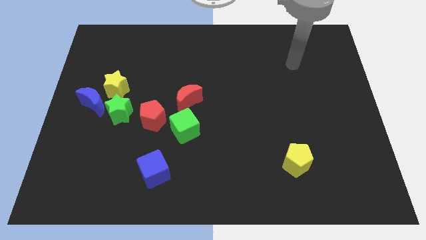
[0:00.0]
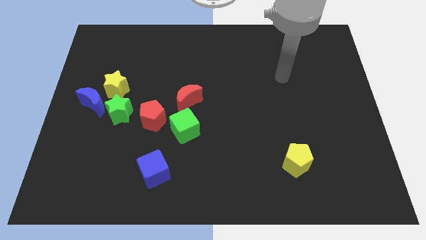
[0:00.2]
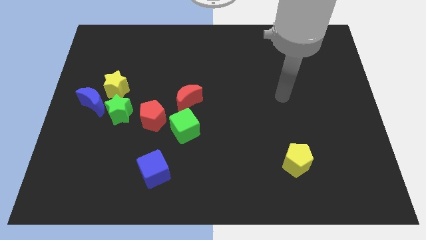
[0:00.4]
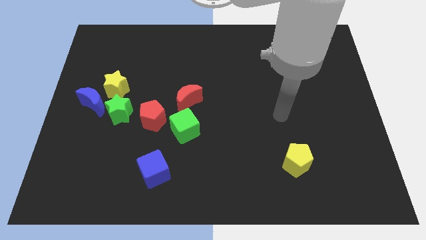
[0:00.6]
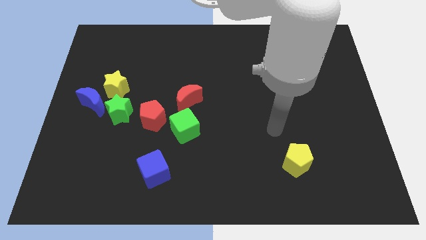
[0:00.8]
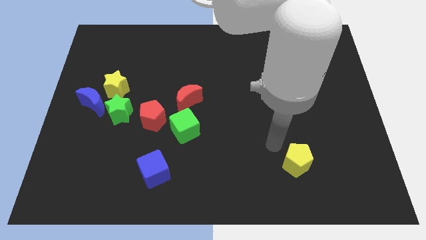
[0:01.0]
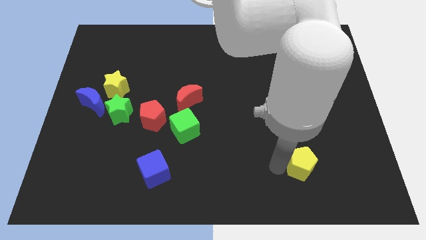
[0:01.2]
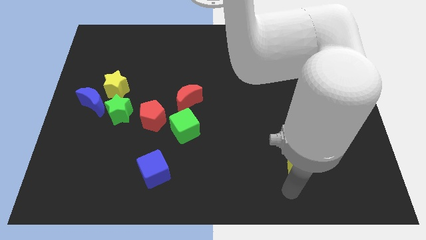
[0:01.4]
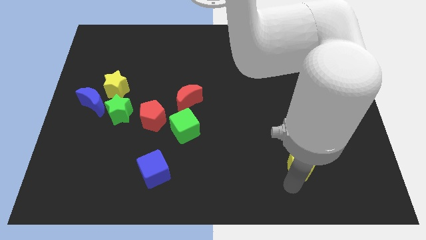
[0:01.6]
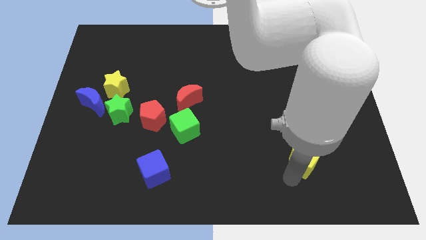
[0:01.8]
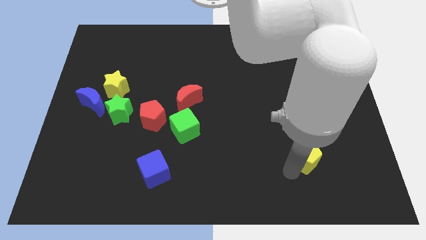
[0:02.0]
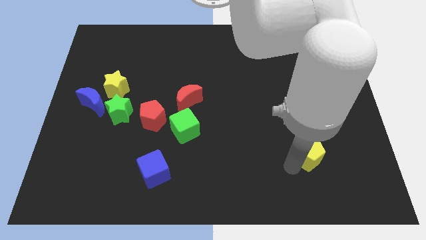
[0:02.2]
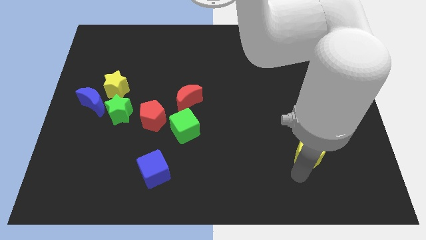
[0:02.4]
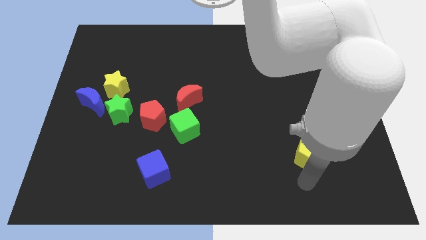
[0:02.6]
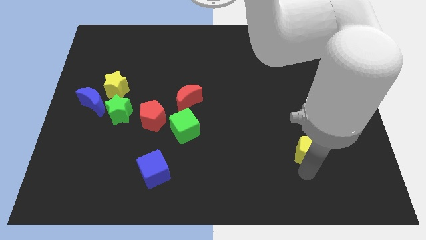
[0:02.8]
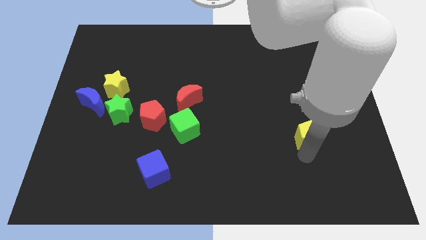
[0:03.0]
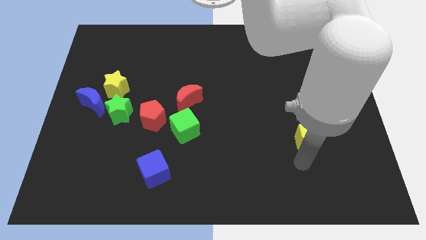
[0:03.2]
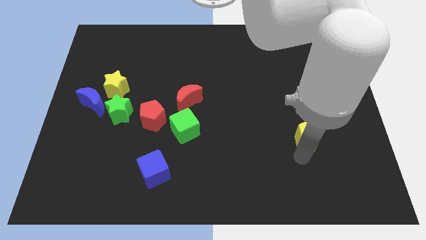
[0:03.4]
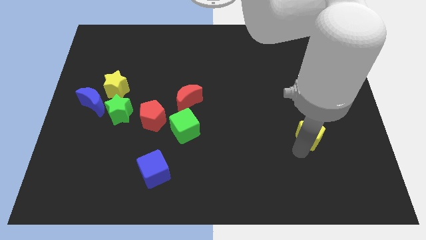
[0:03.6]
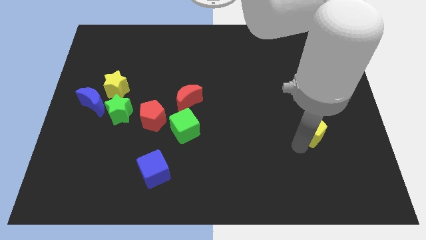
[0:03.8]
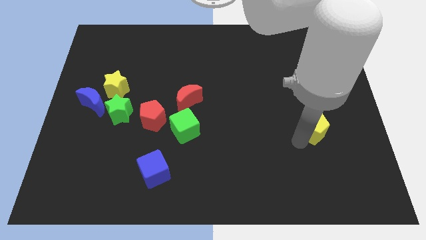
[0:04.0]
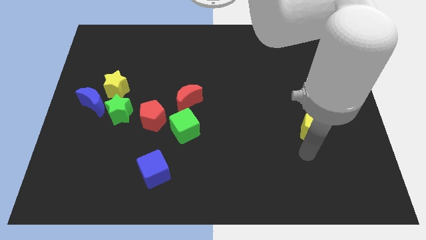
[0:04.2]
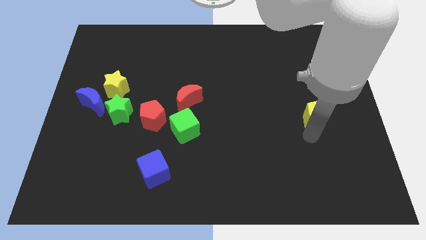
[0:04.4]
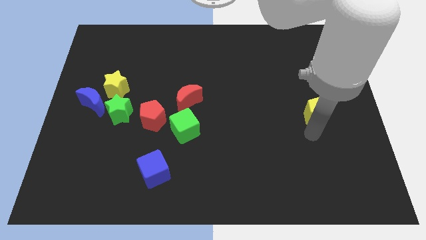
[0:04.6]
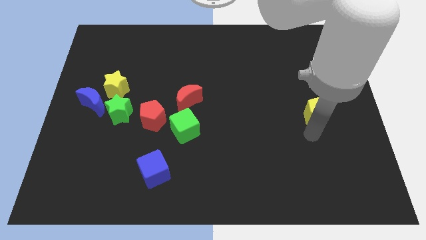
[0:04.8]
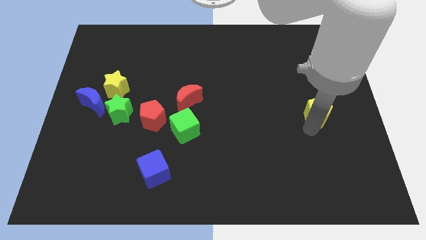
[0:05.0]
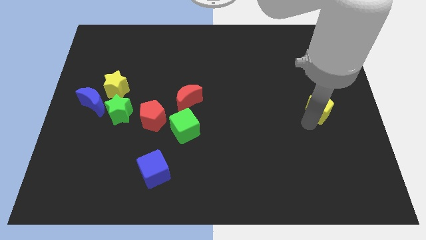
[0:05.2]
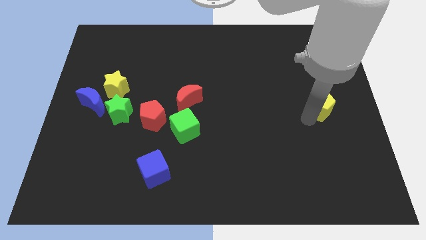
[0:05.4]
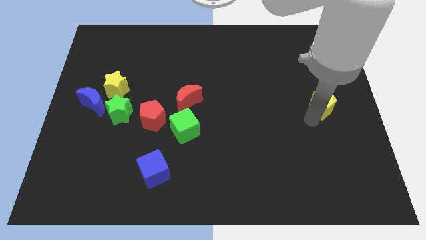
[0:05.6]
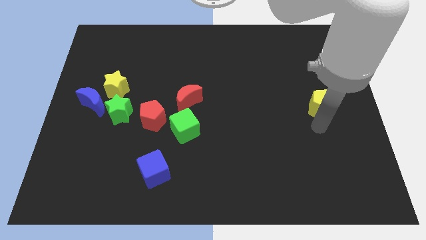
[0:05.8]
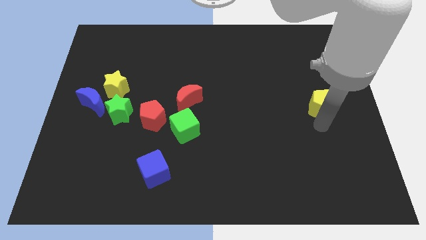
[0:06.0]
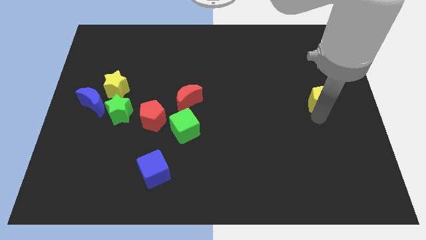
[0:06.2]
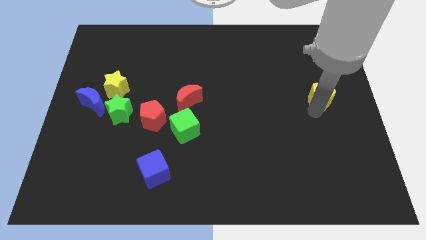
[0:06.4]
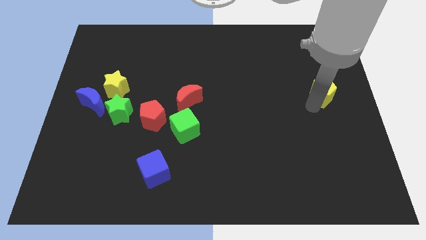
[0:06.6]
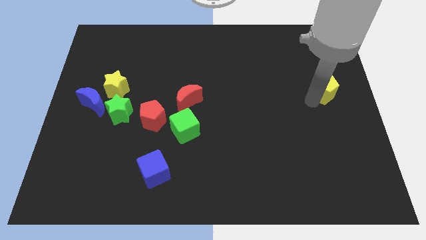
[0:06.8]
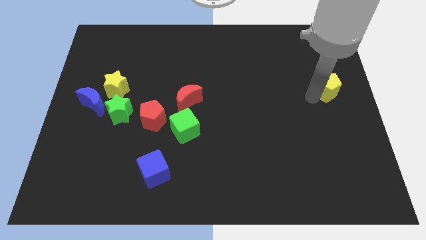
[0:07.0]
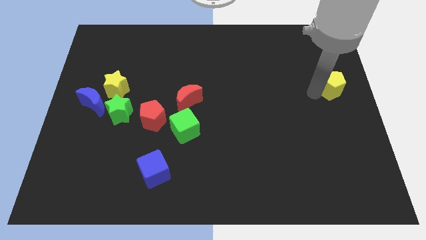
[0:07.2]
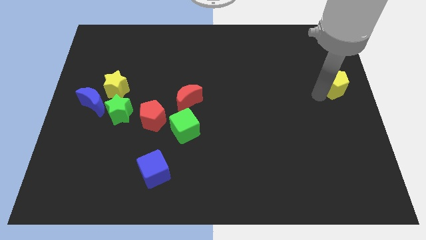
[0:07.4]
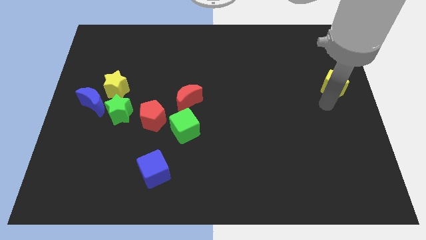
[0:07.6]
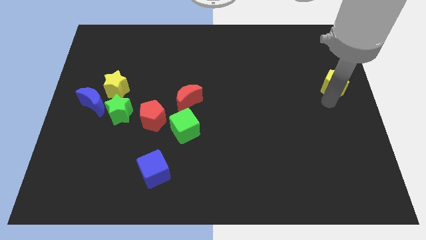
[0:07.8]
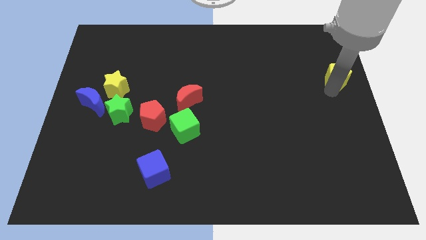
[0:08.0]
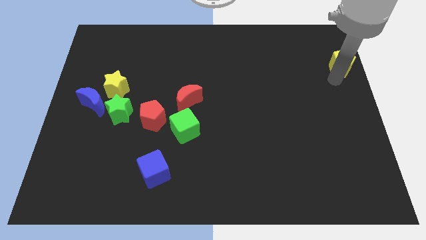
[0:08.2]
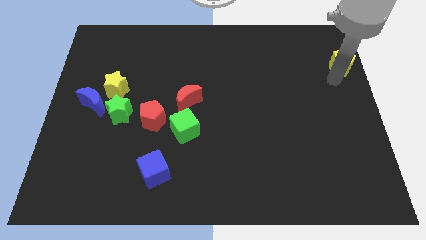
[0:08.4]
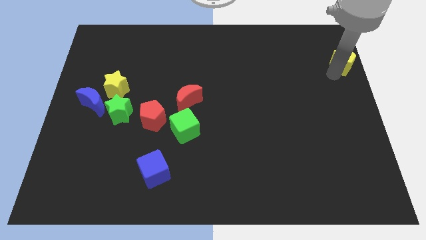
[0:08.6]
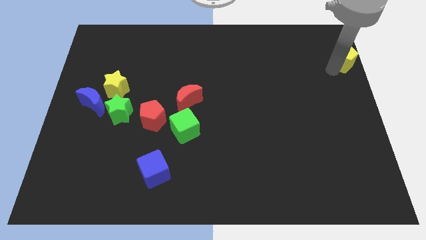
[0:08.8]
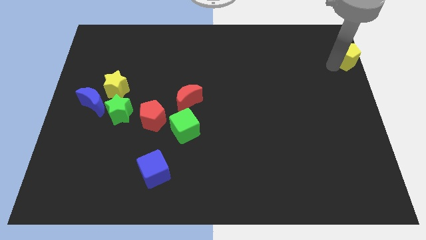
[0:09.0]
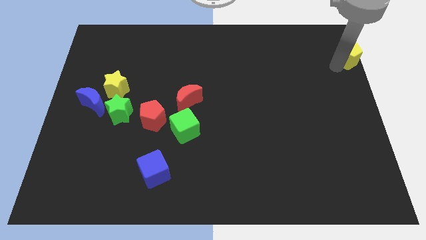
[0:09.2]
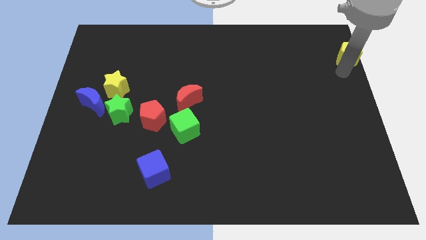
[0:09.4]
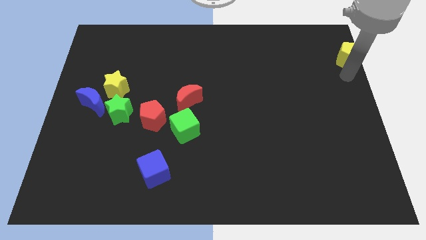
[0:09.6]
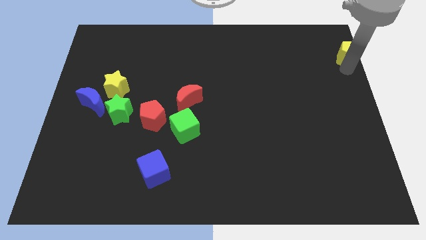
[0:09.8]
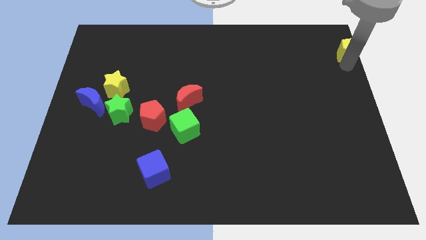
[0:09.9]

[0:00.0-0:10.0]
push the yellow pentagon to the top right of the board

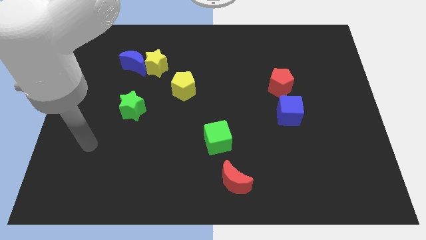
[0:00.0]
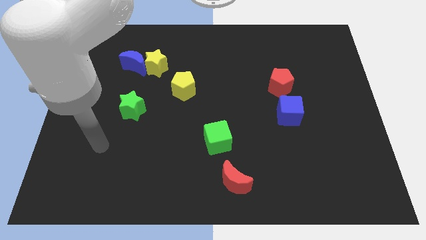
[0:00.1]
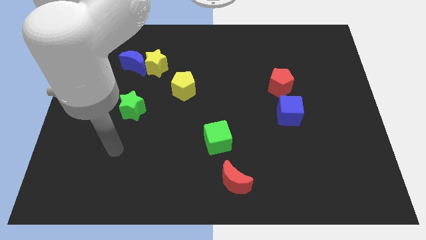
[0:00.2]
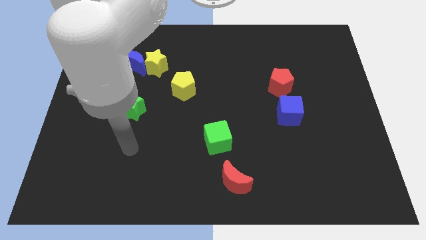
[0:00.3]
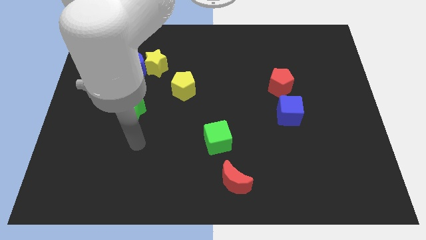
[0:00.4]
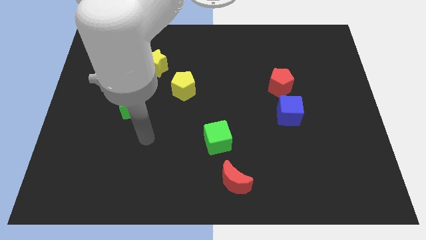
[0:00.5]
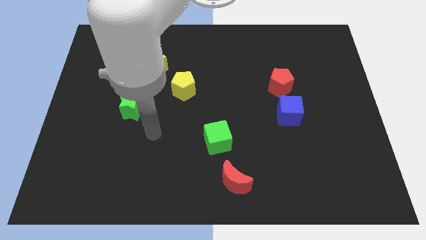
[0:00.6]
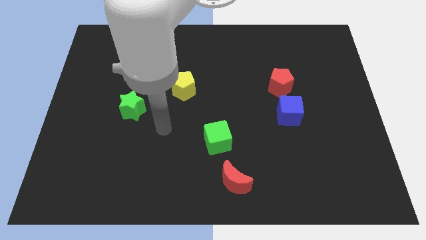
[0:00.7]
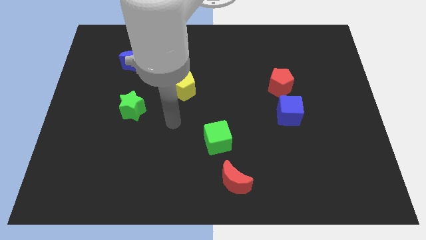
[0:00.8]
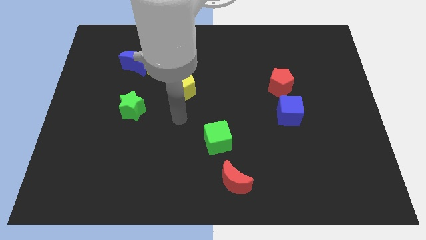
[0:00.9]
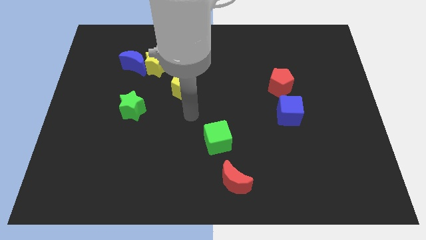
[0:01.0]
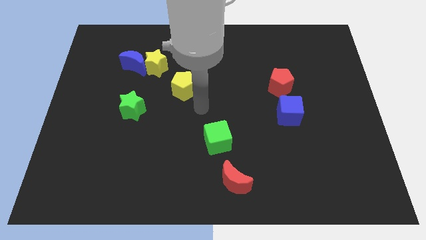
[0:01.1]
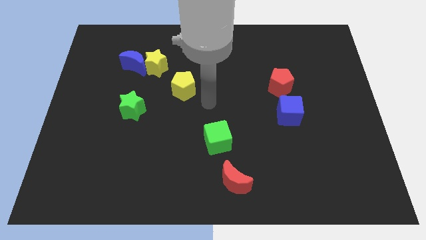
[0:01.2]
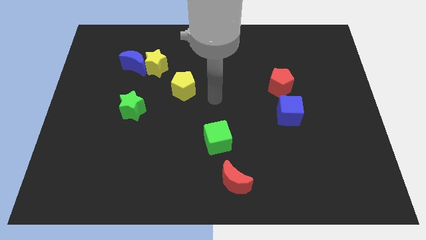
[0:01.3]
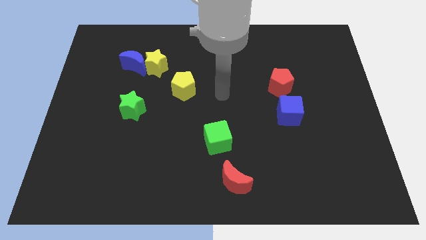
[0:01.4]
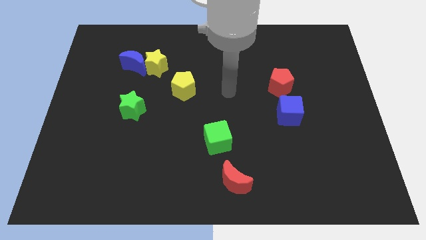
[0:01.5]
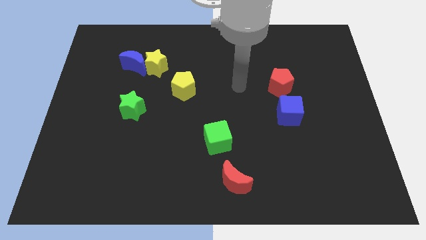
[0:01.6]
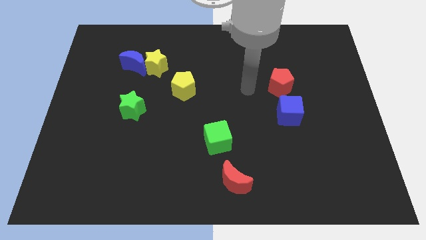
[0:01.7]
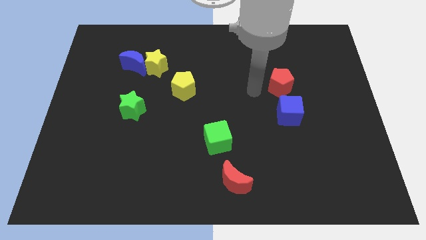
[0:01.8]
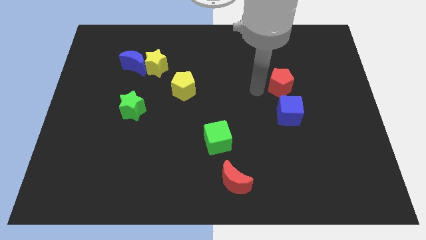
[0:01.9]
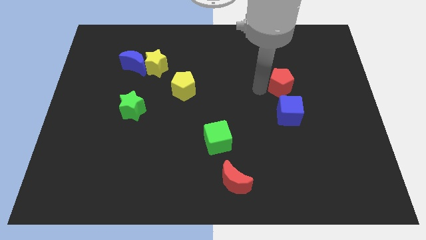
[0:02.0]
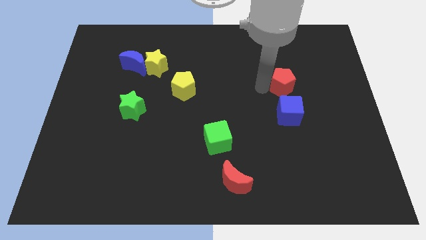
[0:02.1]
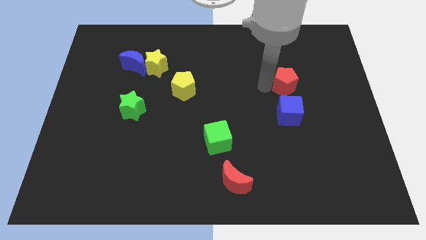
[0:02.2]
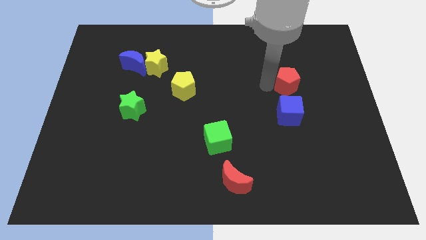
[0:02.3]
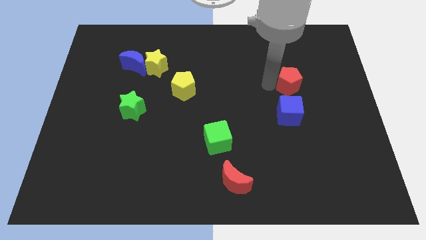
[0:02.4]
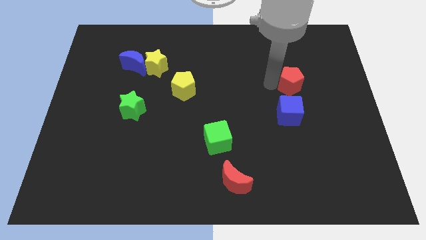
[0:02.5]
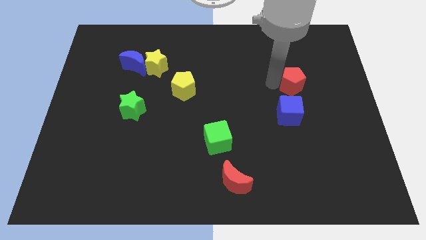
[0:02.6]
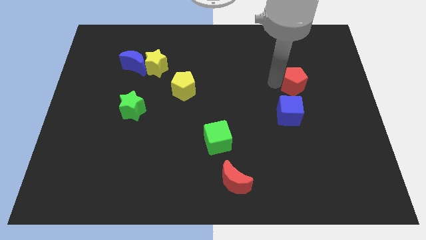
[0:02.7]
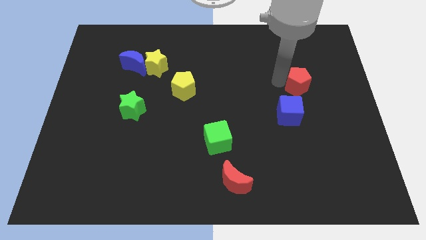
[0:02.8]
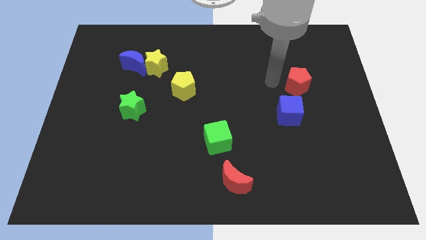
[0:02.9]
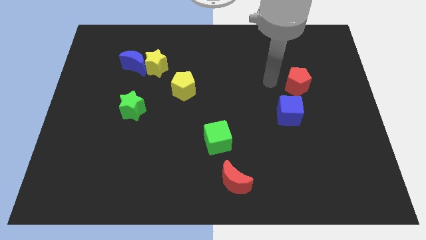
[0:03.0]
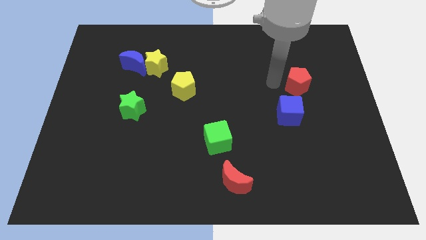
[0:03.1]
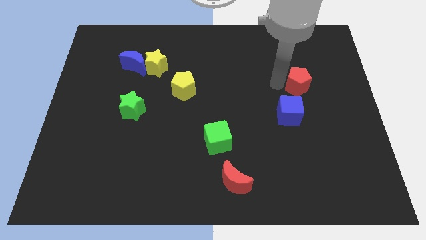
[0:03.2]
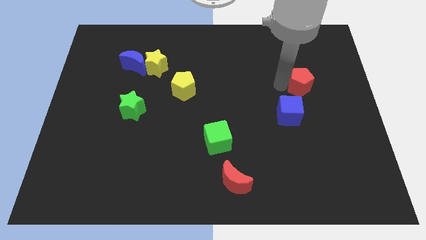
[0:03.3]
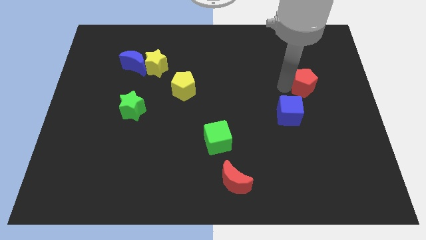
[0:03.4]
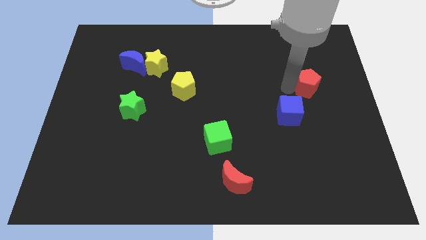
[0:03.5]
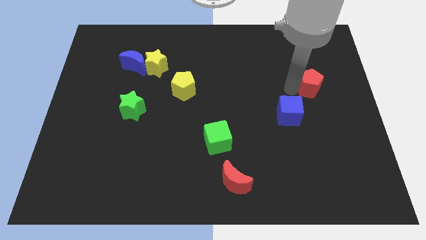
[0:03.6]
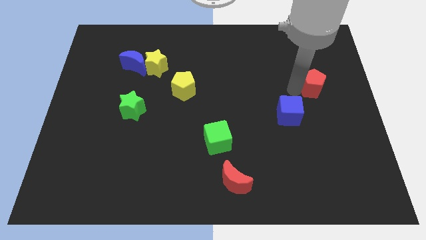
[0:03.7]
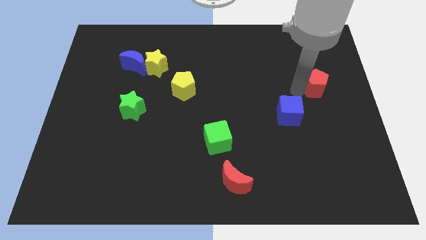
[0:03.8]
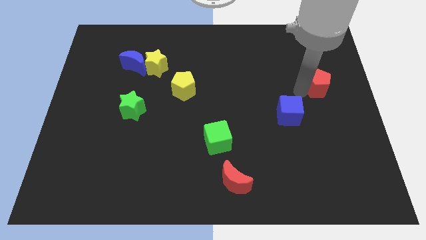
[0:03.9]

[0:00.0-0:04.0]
push the red pentagon to the right side of the board
